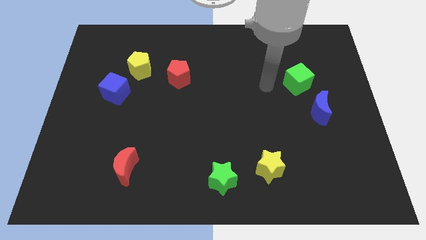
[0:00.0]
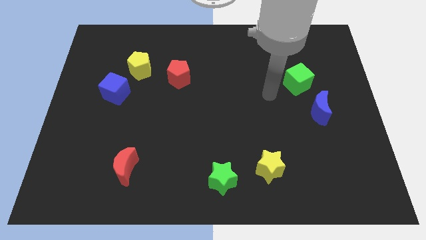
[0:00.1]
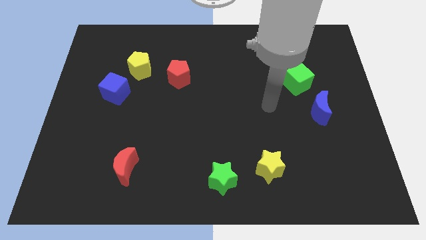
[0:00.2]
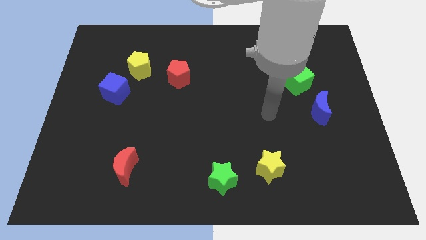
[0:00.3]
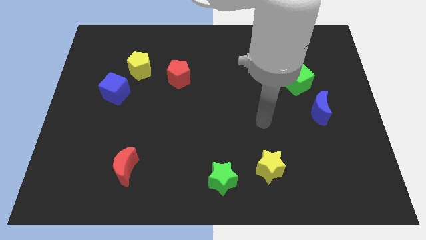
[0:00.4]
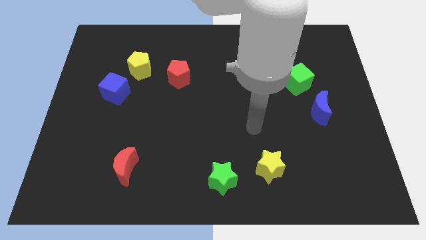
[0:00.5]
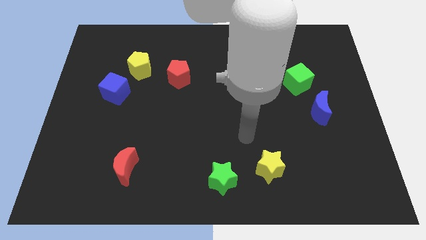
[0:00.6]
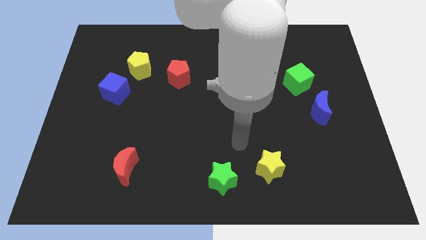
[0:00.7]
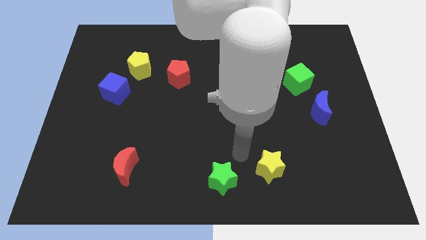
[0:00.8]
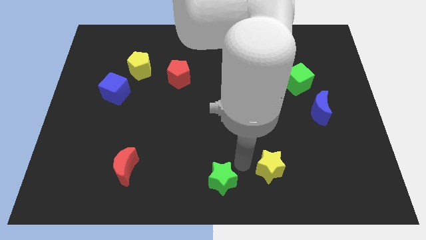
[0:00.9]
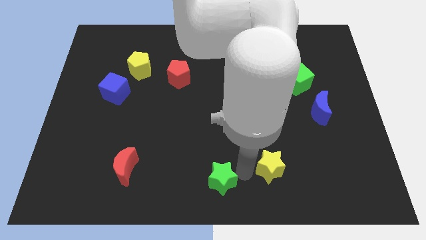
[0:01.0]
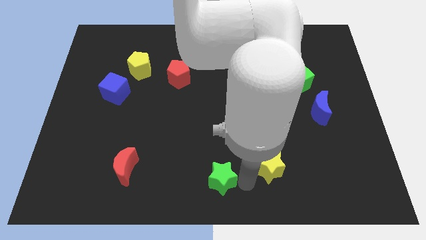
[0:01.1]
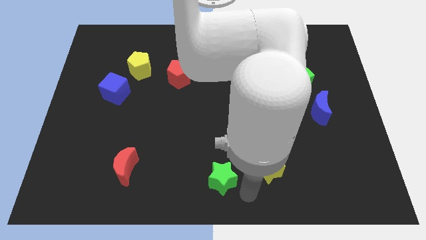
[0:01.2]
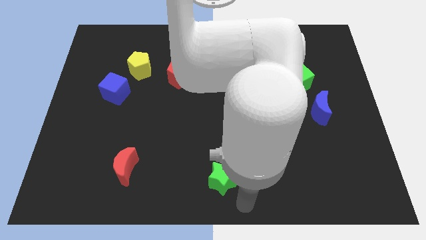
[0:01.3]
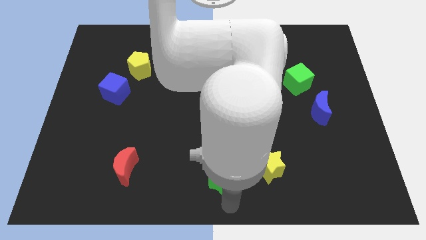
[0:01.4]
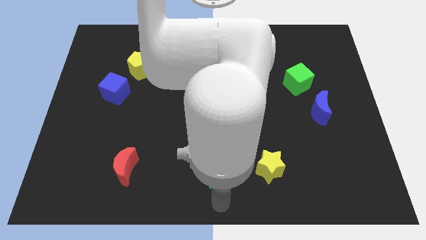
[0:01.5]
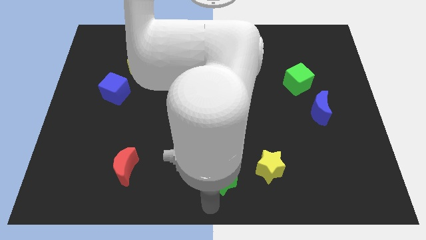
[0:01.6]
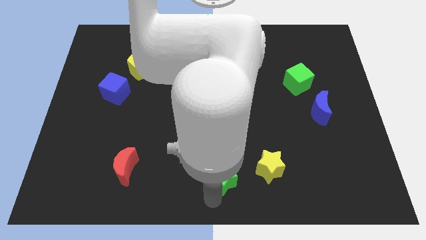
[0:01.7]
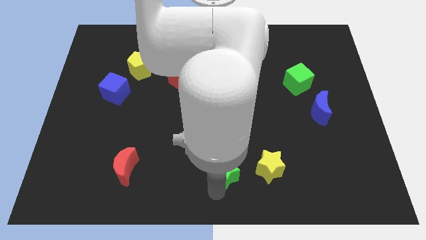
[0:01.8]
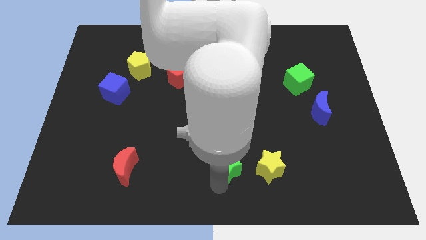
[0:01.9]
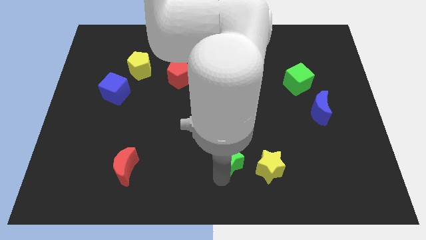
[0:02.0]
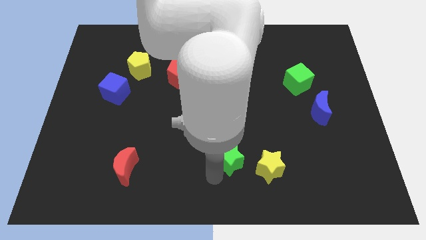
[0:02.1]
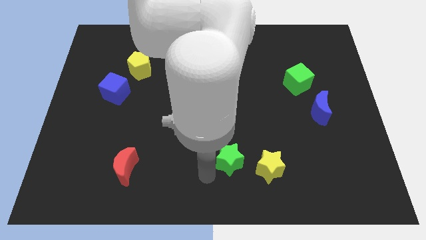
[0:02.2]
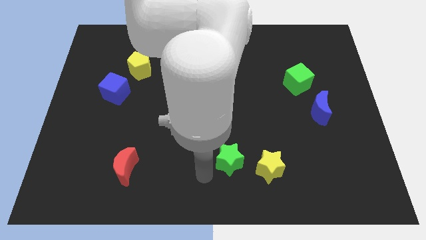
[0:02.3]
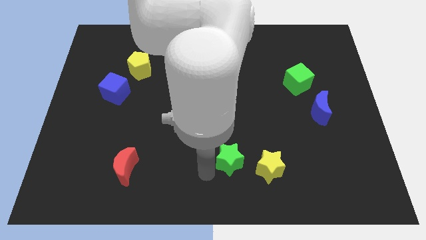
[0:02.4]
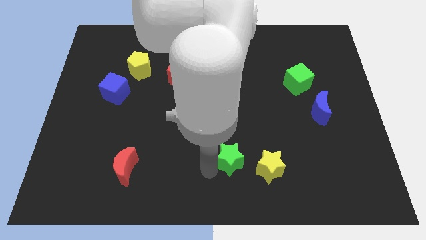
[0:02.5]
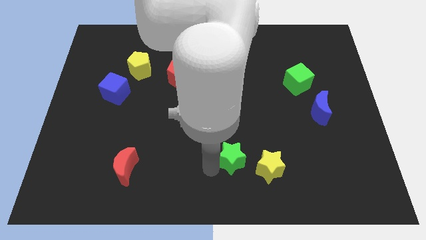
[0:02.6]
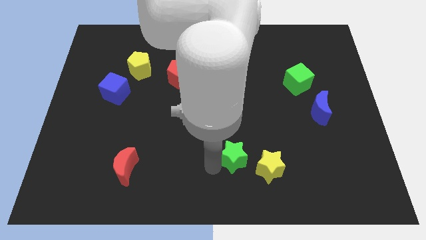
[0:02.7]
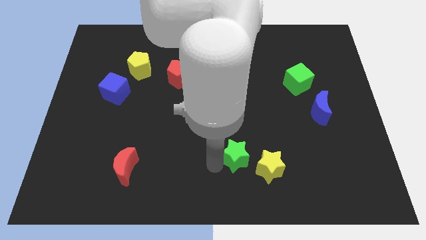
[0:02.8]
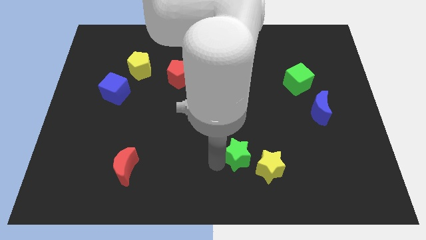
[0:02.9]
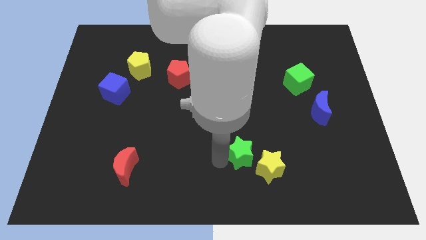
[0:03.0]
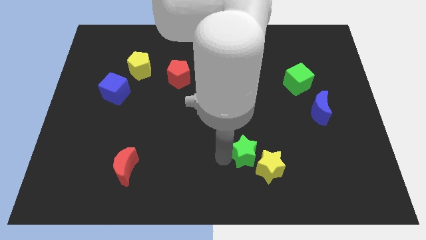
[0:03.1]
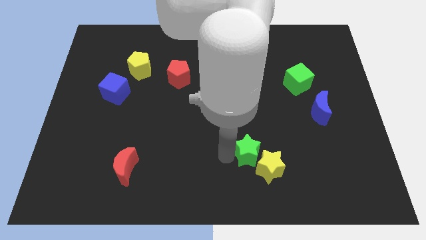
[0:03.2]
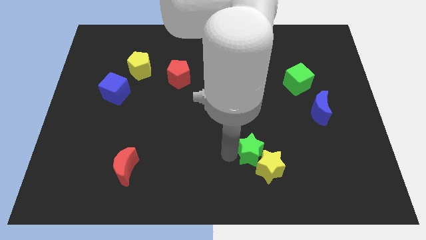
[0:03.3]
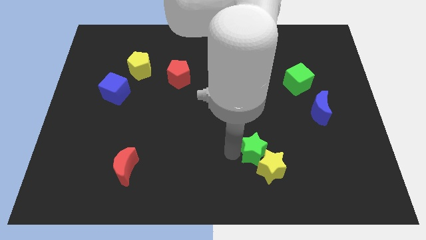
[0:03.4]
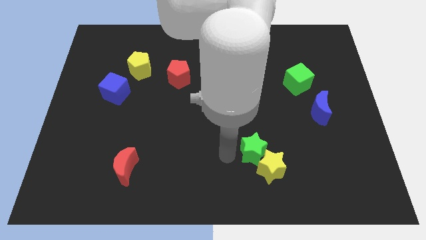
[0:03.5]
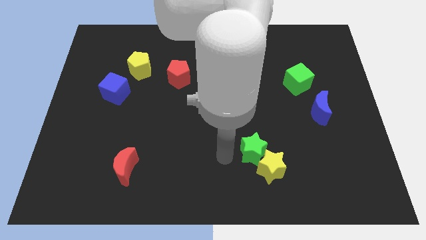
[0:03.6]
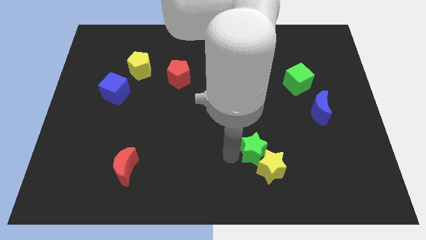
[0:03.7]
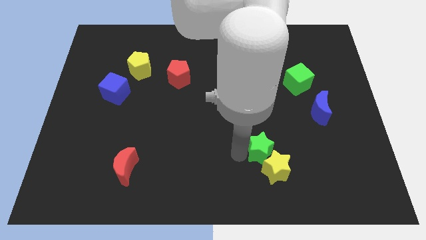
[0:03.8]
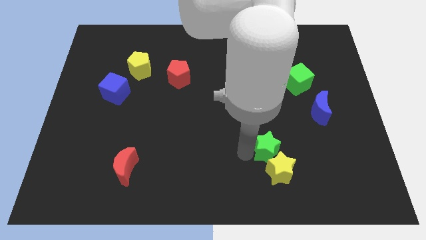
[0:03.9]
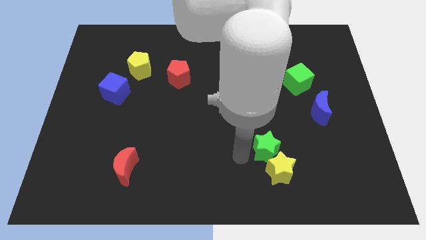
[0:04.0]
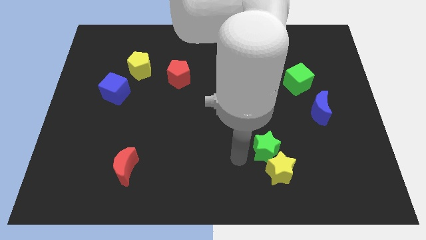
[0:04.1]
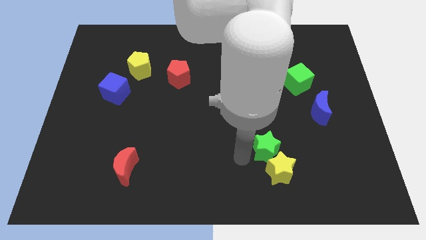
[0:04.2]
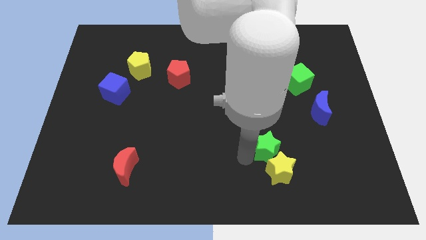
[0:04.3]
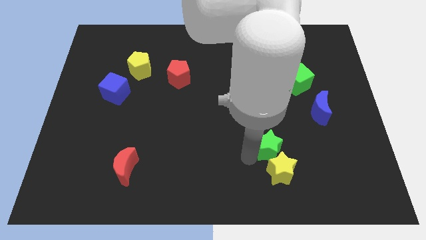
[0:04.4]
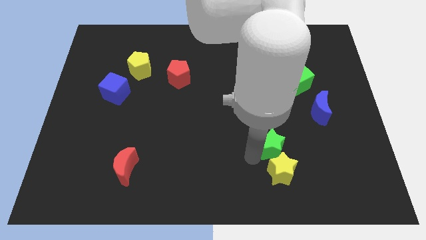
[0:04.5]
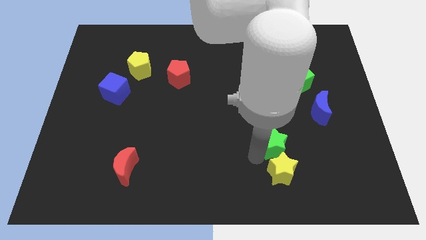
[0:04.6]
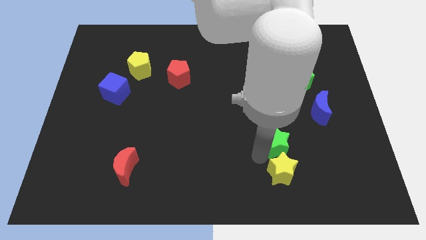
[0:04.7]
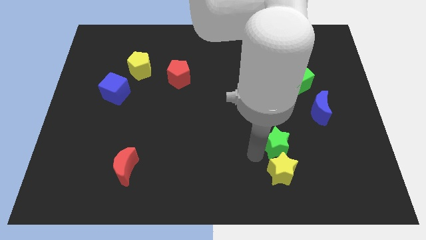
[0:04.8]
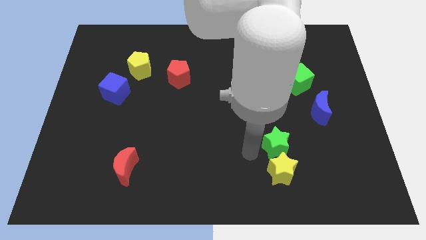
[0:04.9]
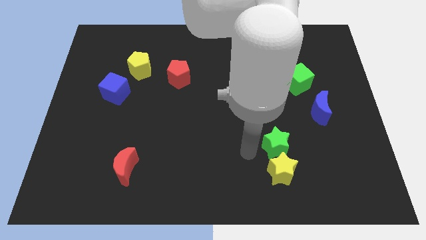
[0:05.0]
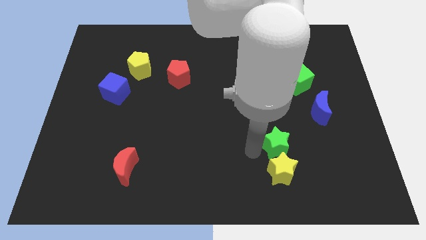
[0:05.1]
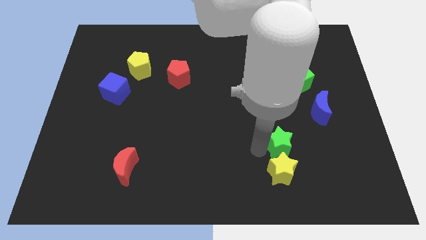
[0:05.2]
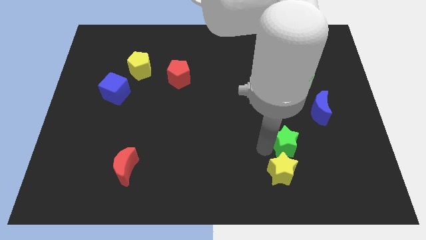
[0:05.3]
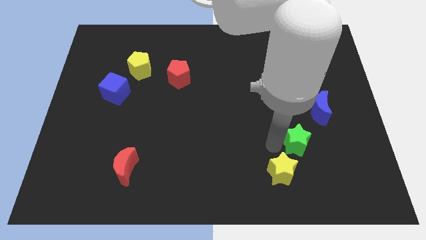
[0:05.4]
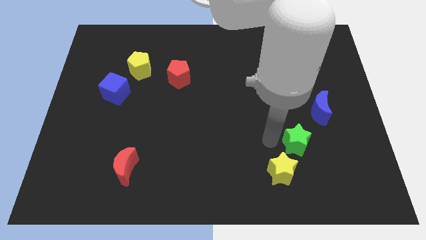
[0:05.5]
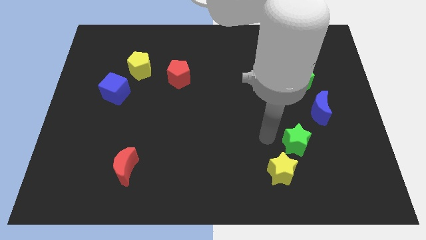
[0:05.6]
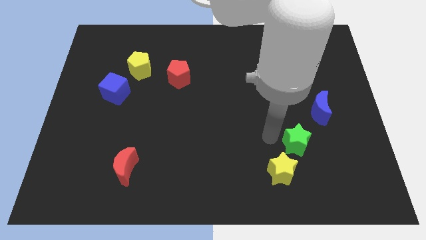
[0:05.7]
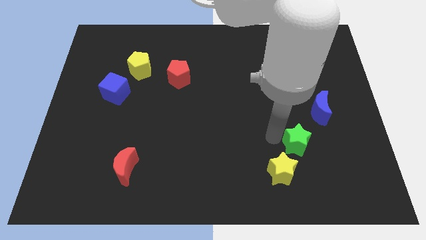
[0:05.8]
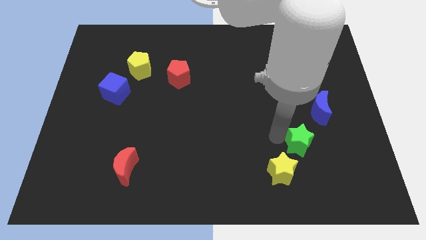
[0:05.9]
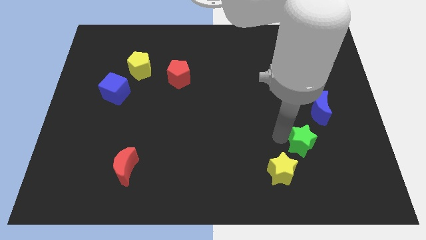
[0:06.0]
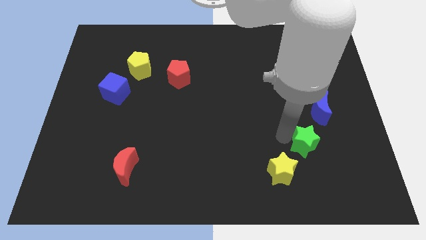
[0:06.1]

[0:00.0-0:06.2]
move the green star to the bottom of the blue moon
